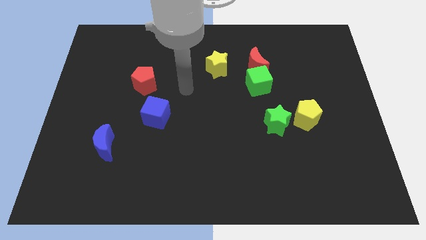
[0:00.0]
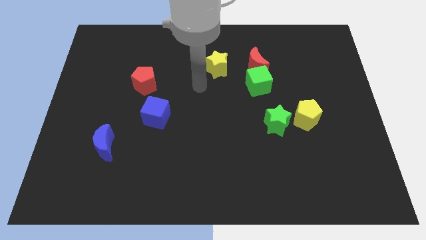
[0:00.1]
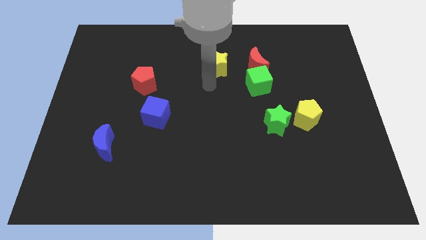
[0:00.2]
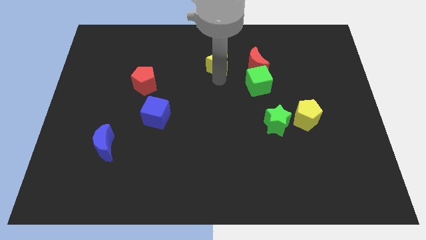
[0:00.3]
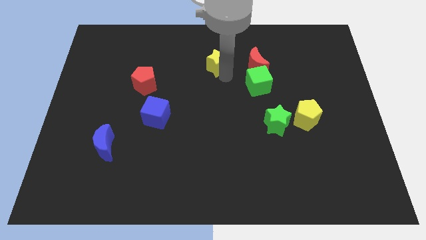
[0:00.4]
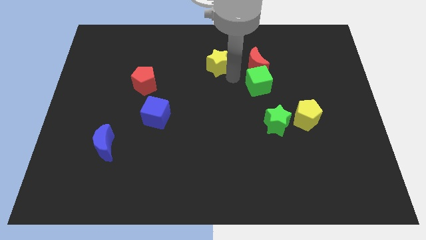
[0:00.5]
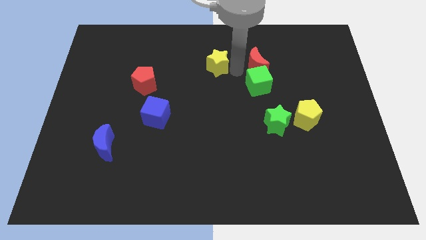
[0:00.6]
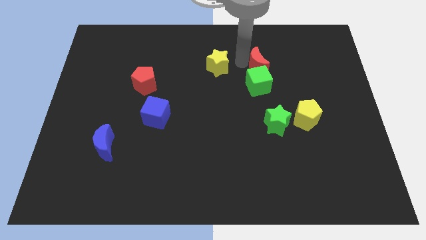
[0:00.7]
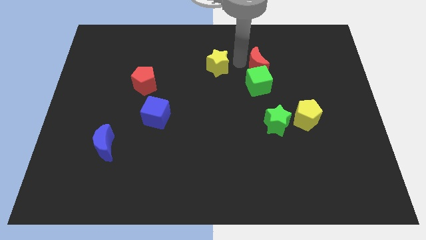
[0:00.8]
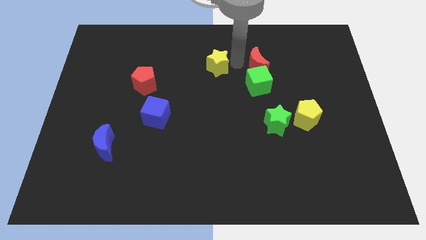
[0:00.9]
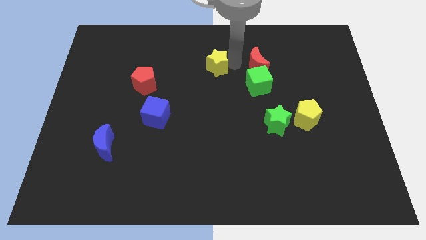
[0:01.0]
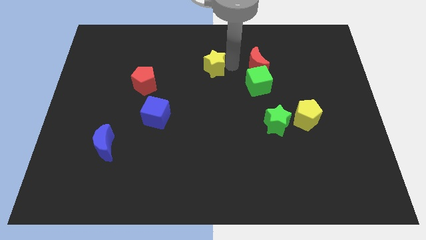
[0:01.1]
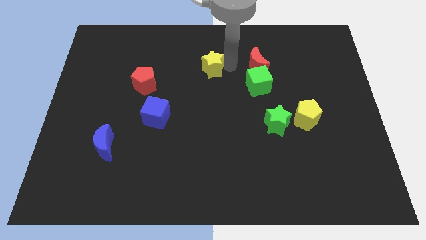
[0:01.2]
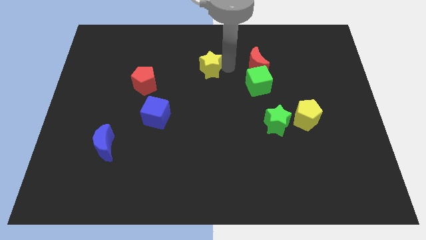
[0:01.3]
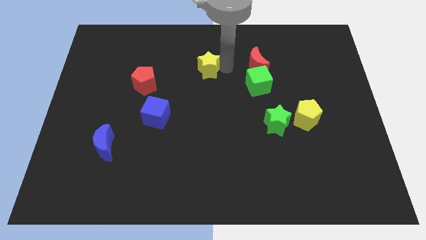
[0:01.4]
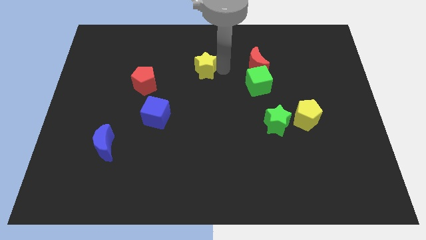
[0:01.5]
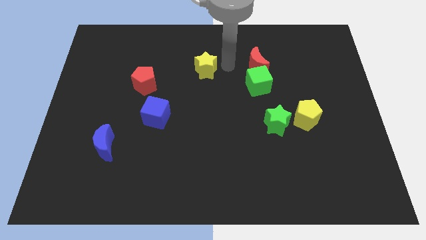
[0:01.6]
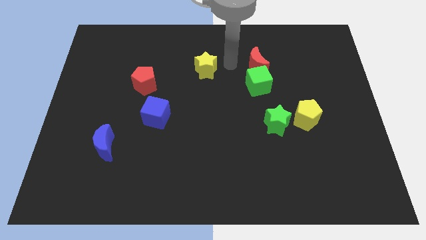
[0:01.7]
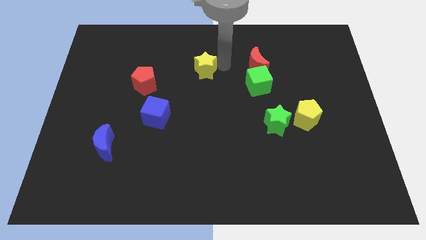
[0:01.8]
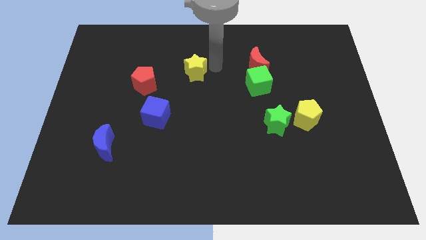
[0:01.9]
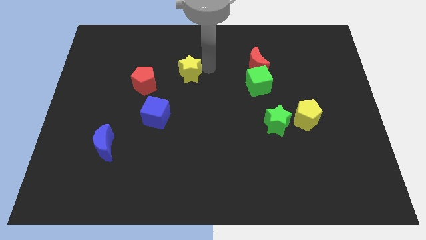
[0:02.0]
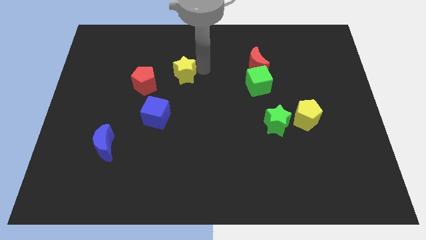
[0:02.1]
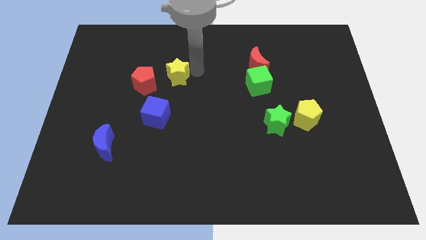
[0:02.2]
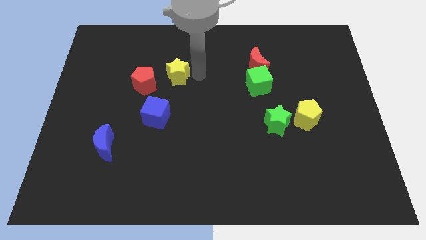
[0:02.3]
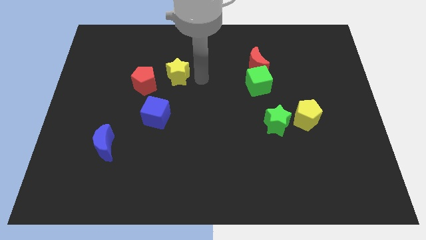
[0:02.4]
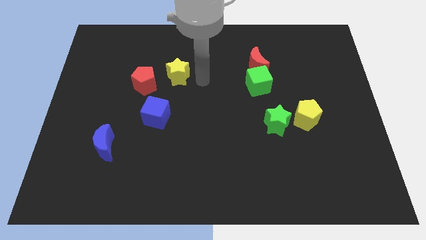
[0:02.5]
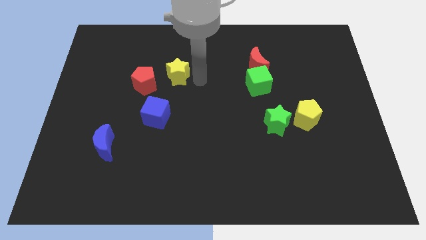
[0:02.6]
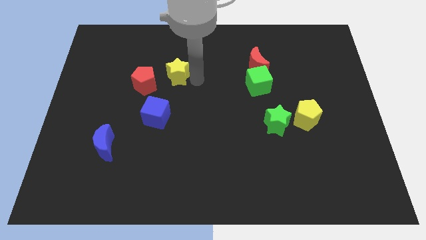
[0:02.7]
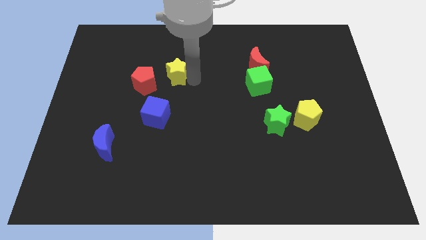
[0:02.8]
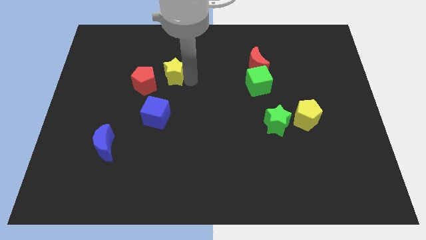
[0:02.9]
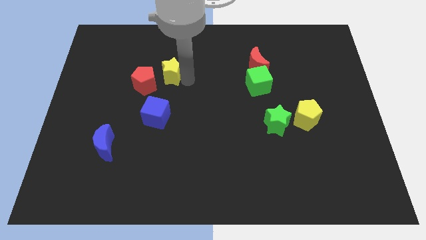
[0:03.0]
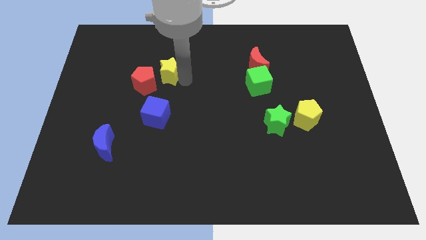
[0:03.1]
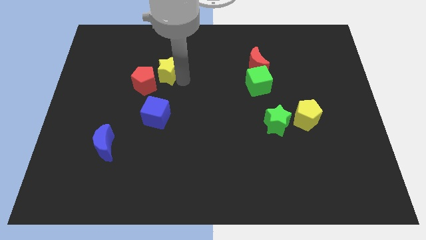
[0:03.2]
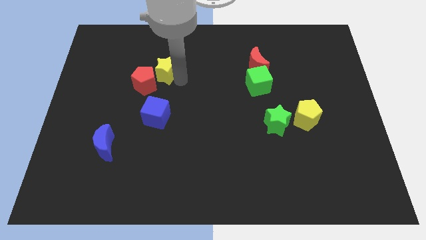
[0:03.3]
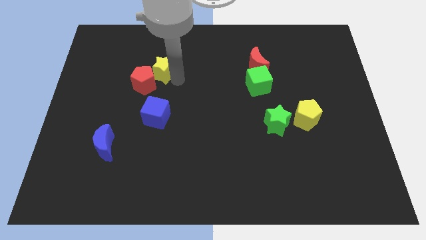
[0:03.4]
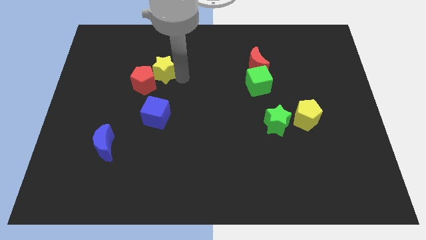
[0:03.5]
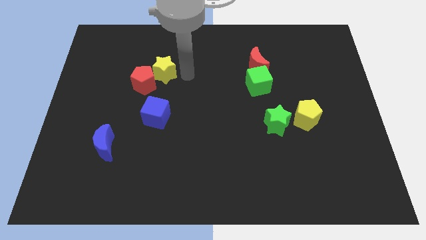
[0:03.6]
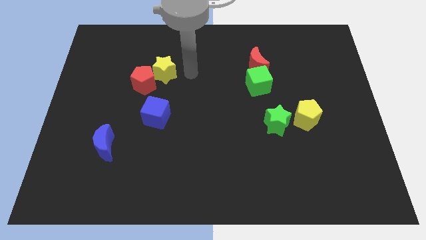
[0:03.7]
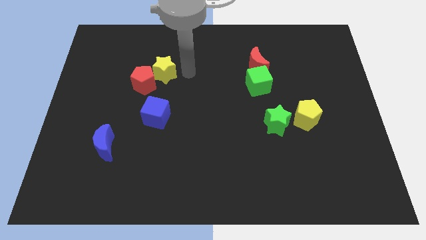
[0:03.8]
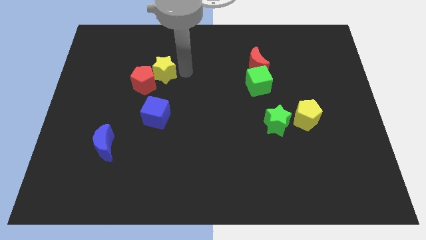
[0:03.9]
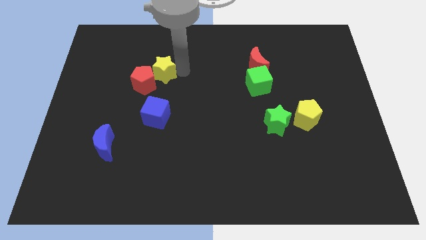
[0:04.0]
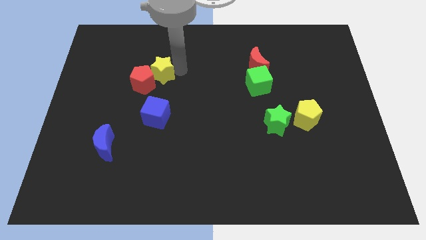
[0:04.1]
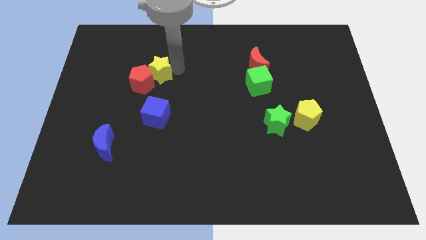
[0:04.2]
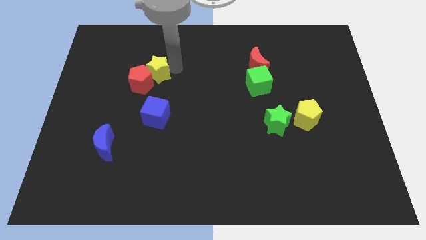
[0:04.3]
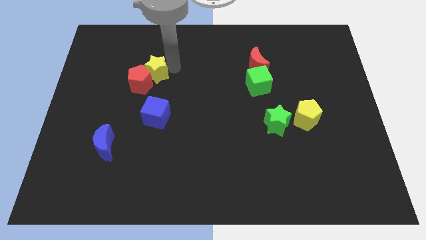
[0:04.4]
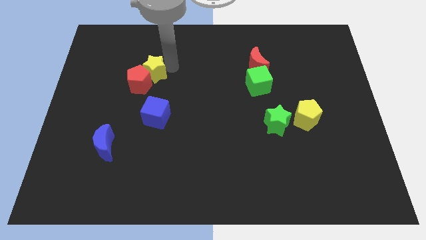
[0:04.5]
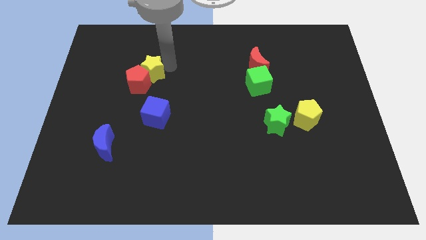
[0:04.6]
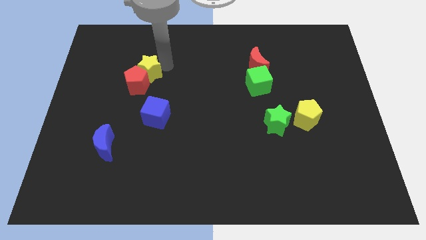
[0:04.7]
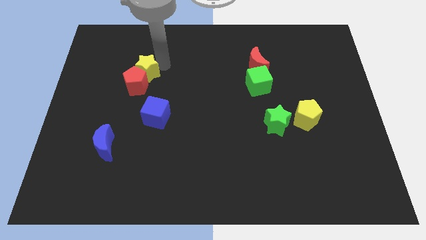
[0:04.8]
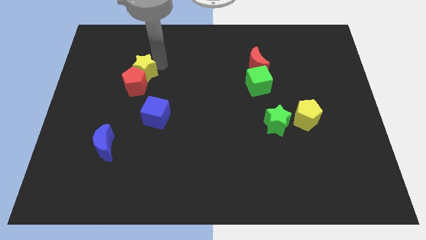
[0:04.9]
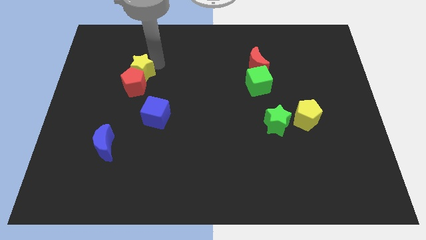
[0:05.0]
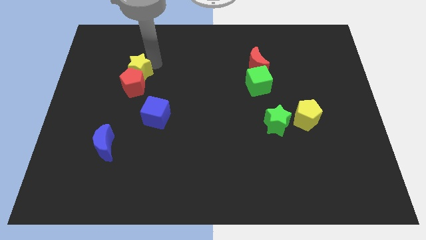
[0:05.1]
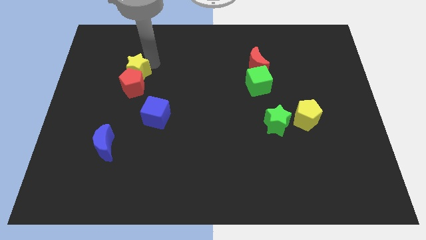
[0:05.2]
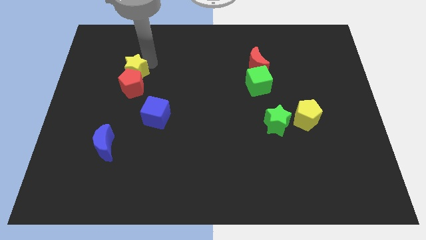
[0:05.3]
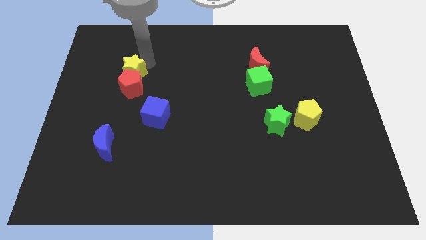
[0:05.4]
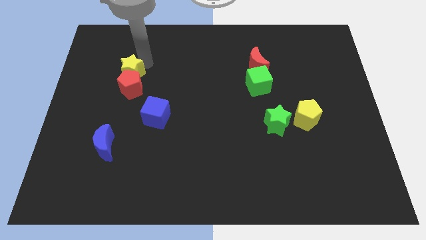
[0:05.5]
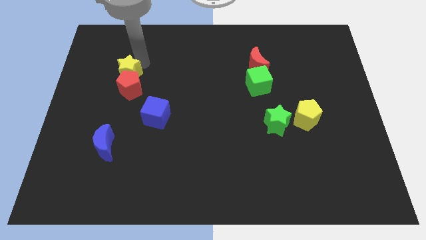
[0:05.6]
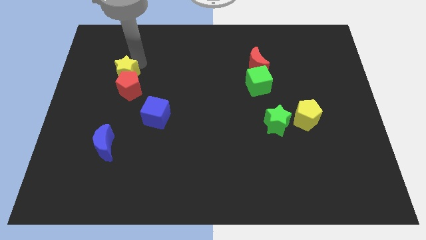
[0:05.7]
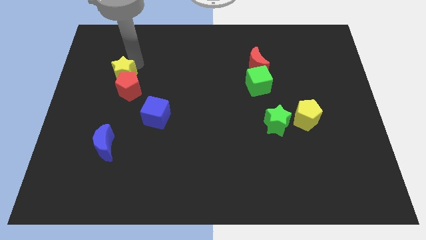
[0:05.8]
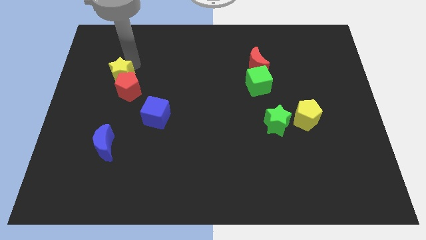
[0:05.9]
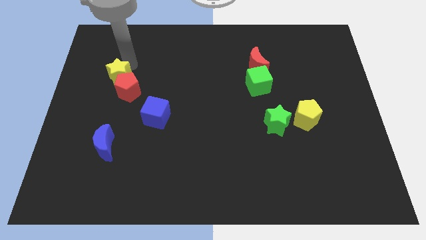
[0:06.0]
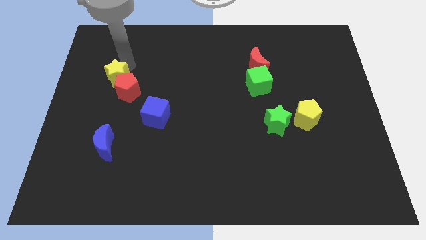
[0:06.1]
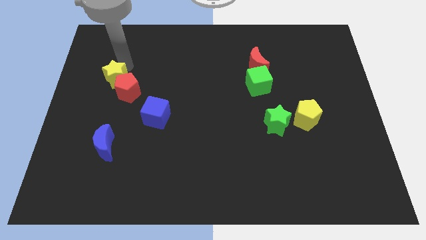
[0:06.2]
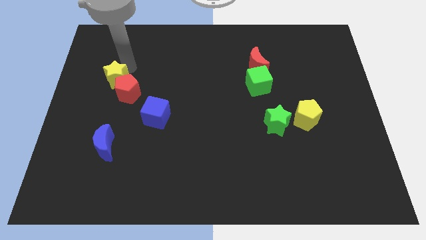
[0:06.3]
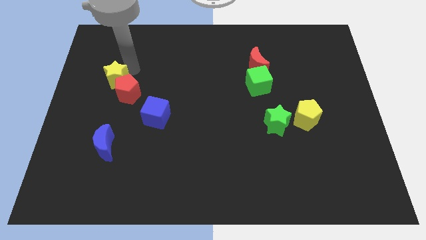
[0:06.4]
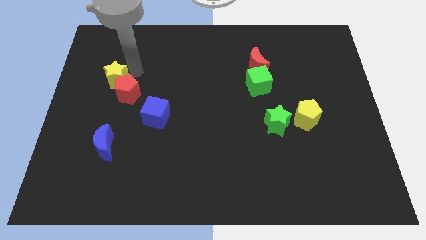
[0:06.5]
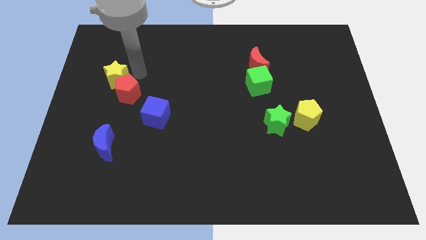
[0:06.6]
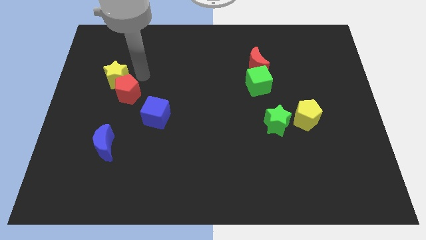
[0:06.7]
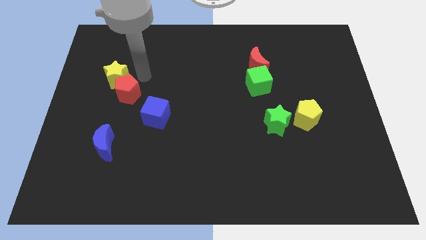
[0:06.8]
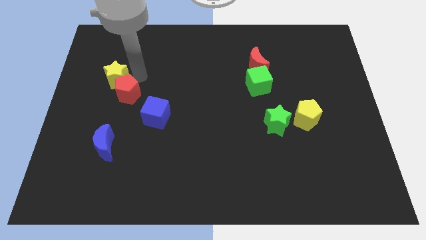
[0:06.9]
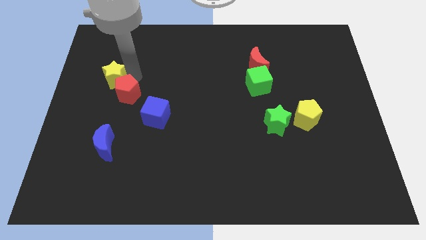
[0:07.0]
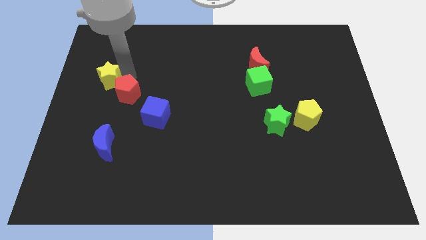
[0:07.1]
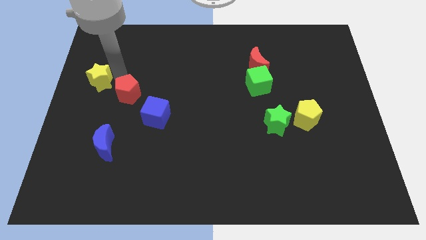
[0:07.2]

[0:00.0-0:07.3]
move the yellow star to the left side
